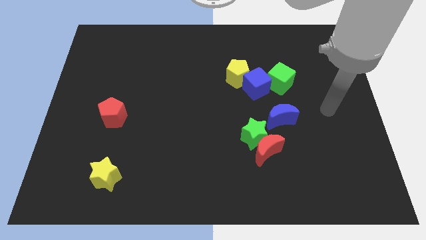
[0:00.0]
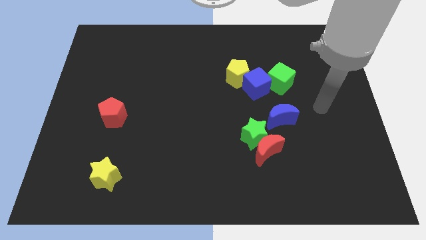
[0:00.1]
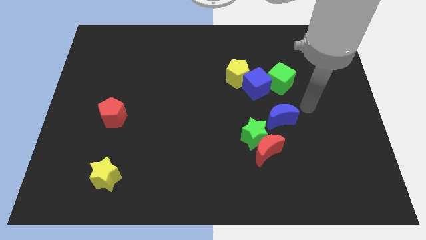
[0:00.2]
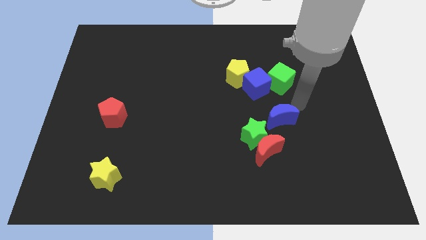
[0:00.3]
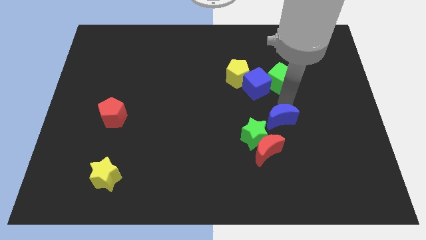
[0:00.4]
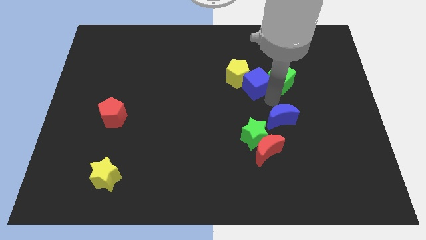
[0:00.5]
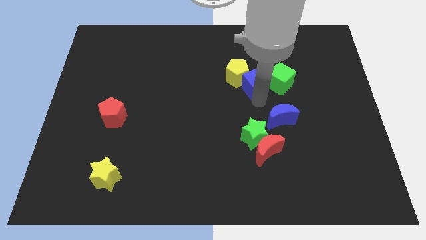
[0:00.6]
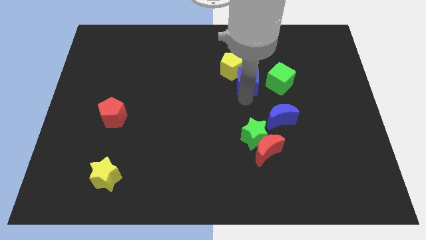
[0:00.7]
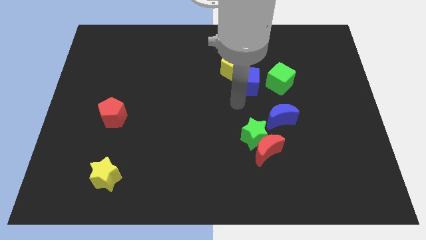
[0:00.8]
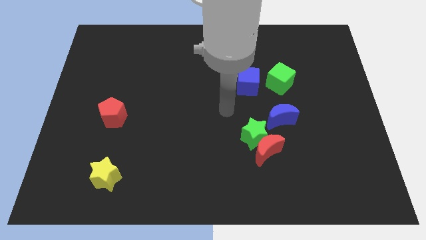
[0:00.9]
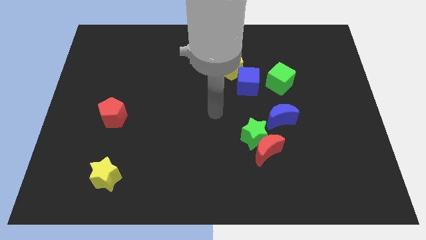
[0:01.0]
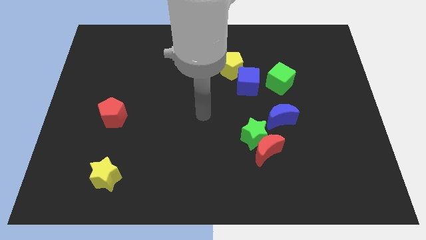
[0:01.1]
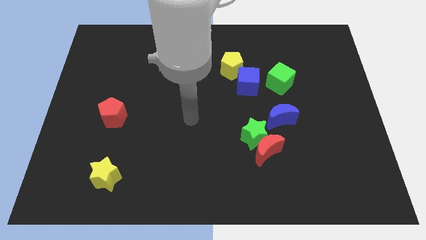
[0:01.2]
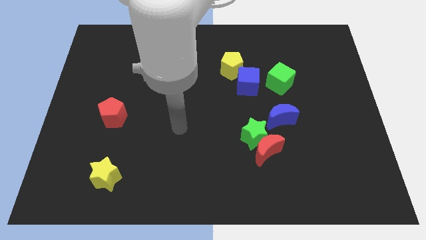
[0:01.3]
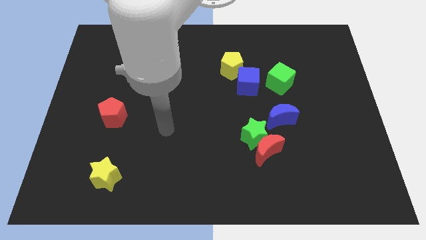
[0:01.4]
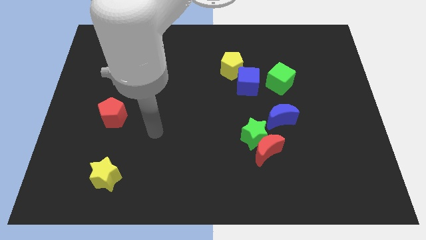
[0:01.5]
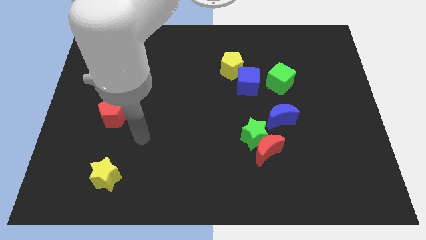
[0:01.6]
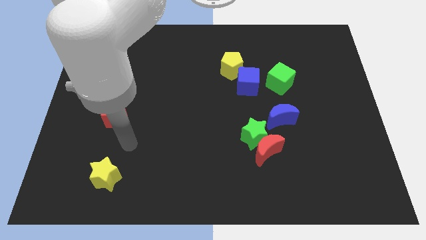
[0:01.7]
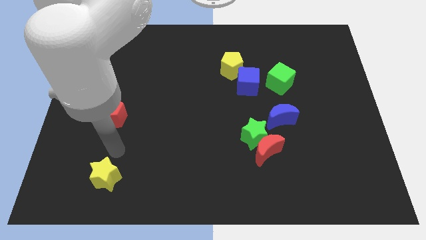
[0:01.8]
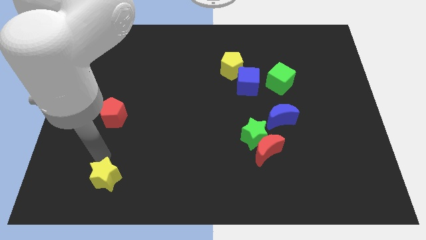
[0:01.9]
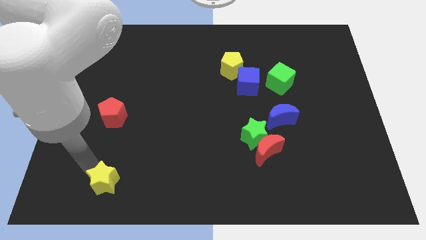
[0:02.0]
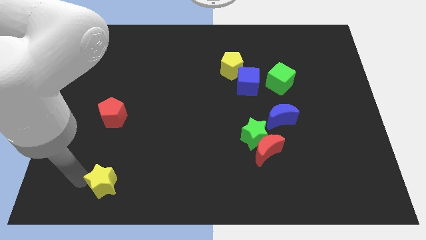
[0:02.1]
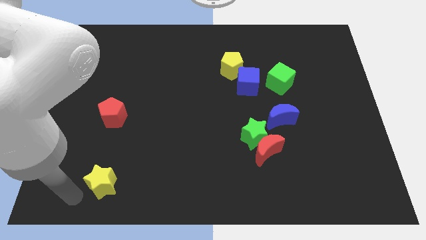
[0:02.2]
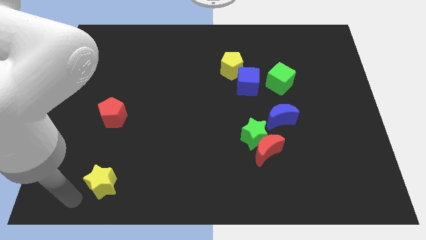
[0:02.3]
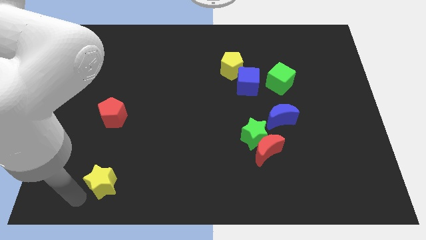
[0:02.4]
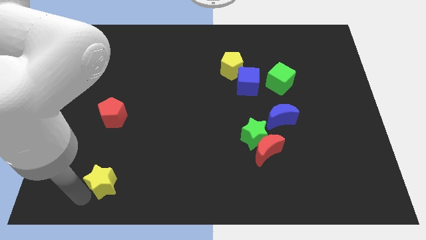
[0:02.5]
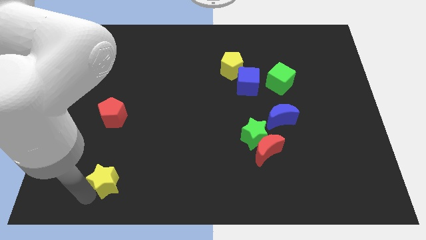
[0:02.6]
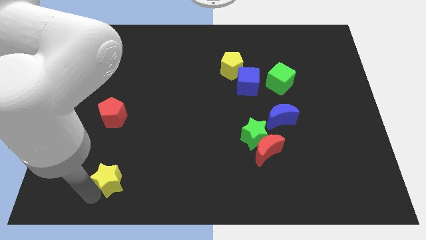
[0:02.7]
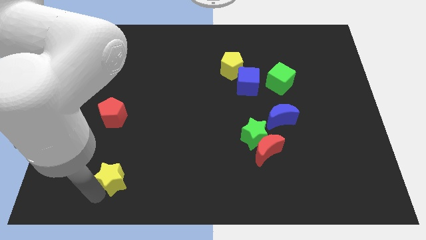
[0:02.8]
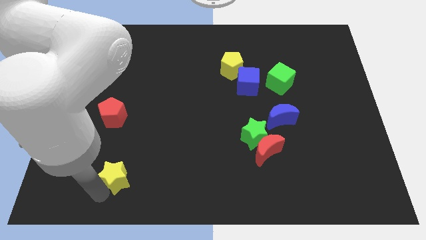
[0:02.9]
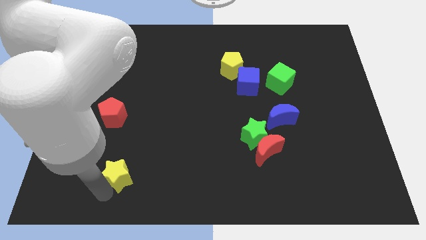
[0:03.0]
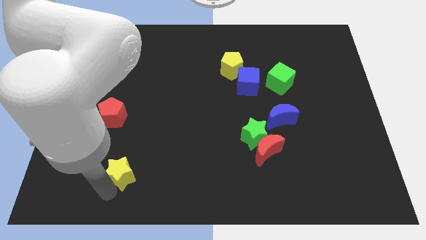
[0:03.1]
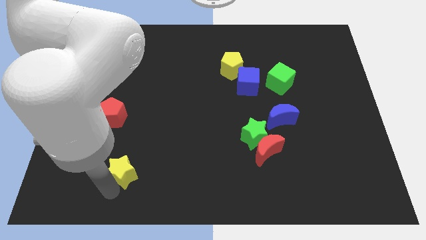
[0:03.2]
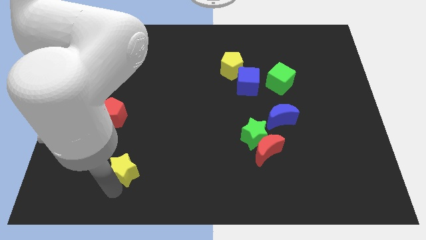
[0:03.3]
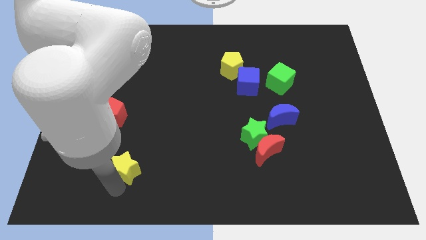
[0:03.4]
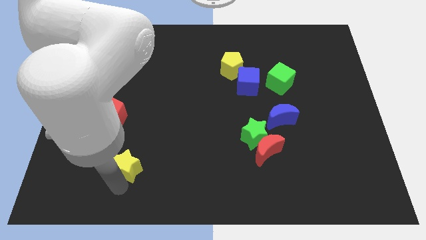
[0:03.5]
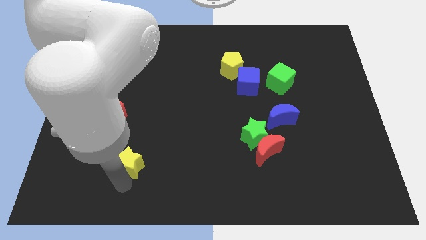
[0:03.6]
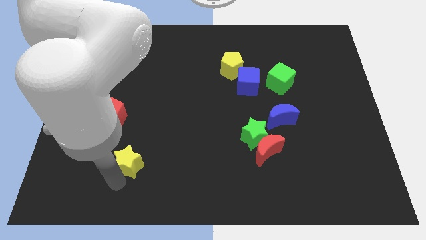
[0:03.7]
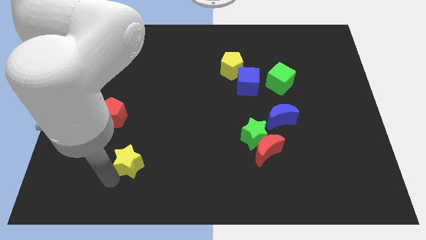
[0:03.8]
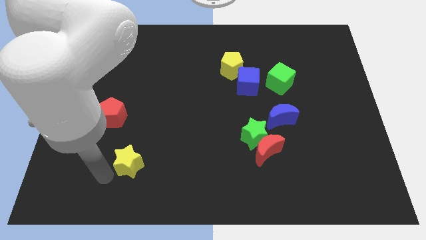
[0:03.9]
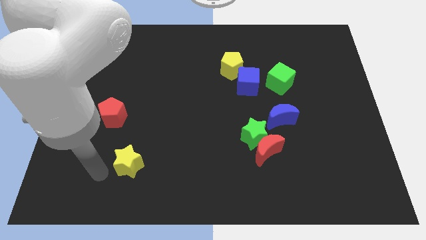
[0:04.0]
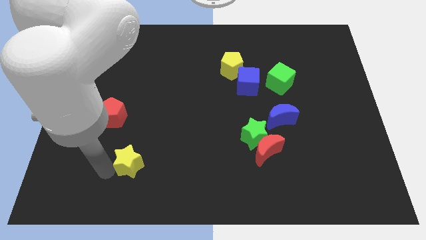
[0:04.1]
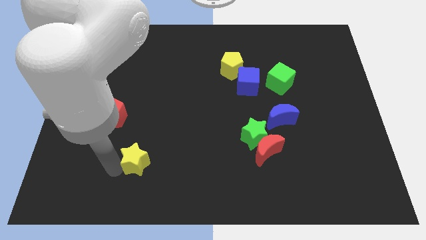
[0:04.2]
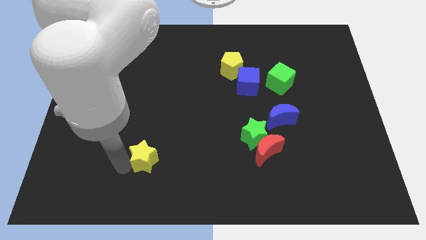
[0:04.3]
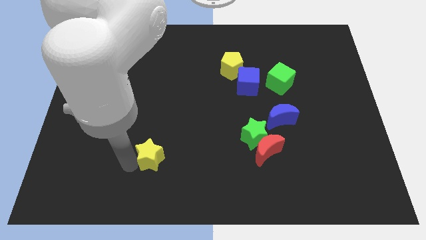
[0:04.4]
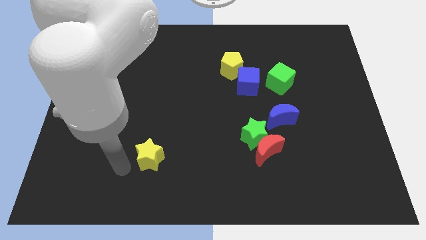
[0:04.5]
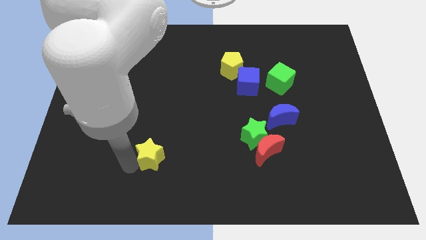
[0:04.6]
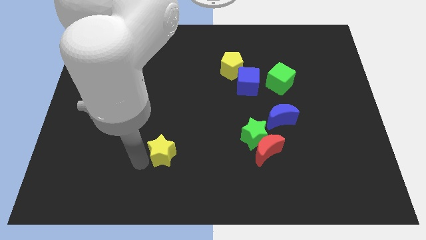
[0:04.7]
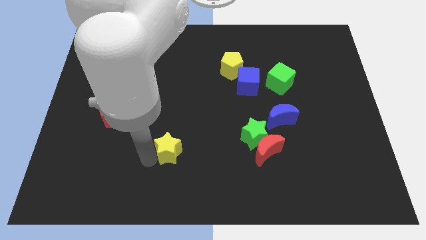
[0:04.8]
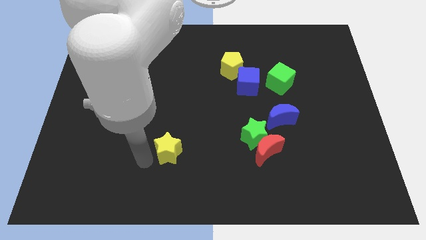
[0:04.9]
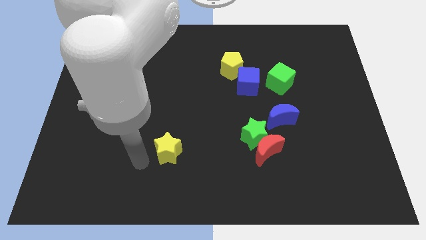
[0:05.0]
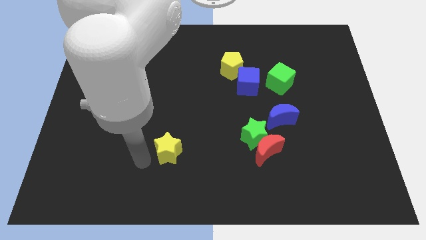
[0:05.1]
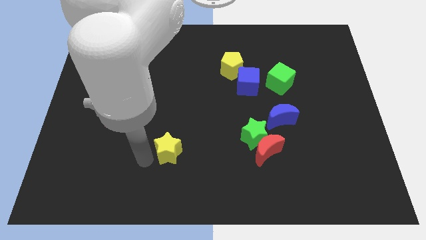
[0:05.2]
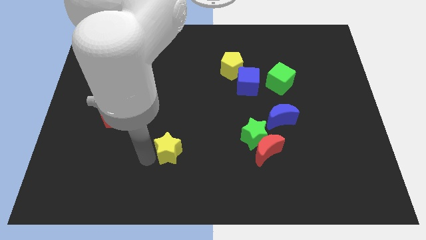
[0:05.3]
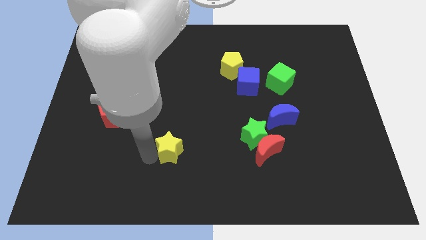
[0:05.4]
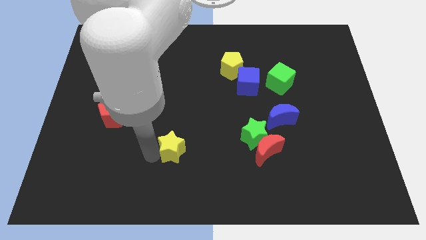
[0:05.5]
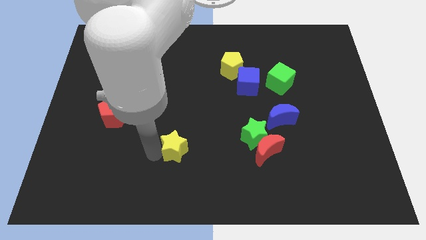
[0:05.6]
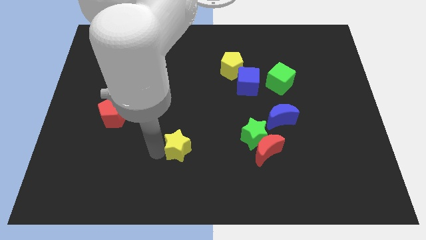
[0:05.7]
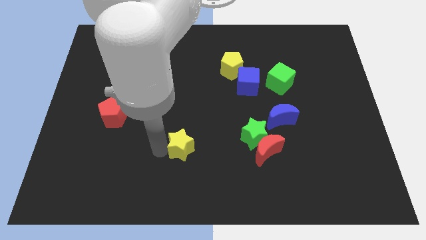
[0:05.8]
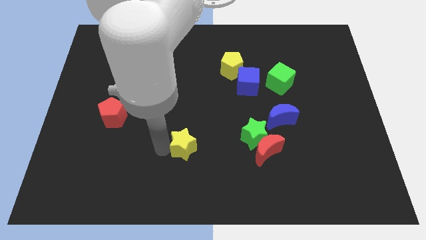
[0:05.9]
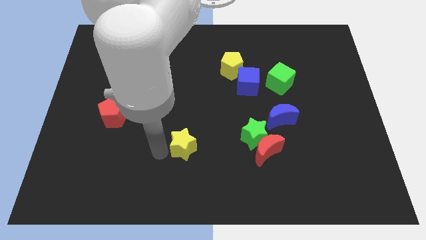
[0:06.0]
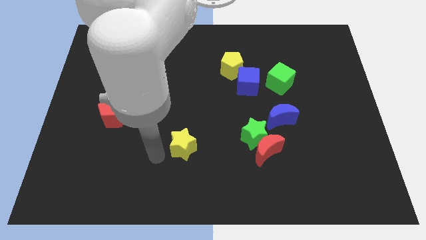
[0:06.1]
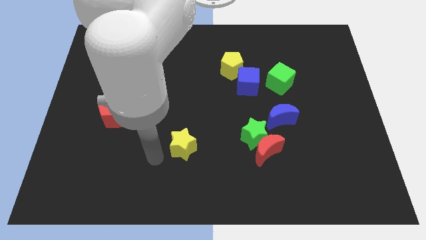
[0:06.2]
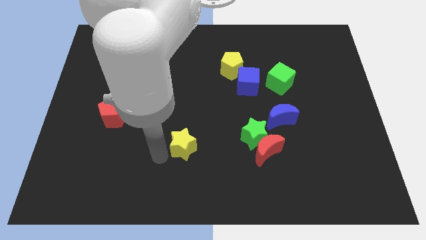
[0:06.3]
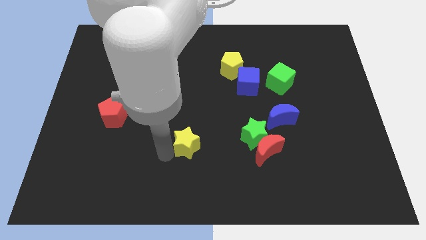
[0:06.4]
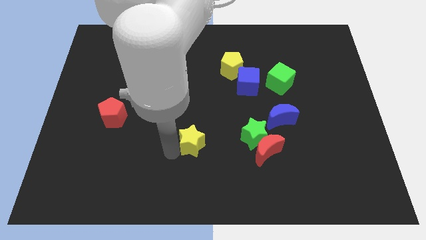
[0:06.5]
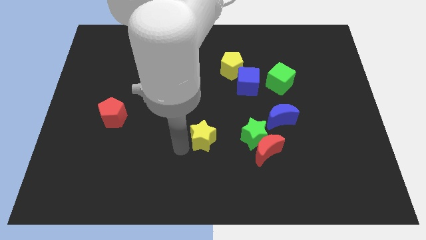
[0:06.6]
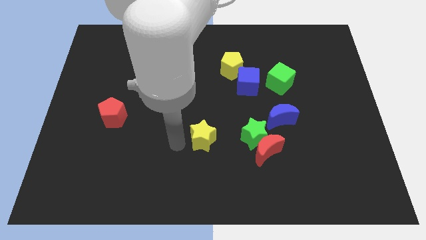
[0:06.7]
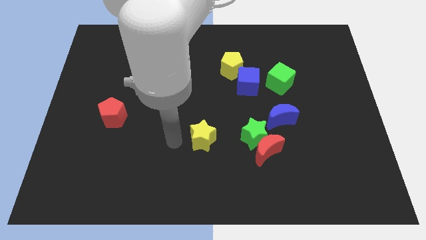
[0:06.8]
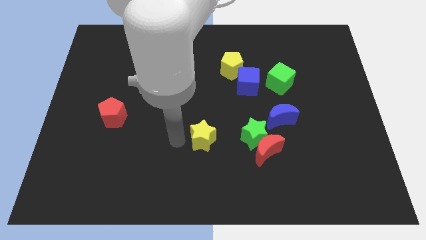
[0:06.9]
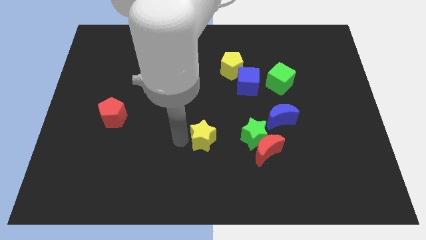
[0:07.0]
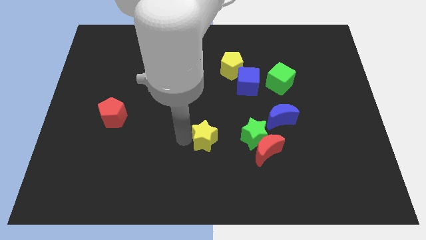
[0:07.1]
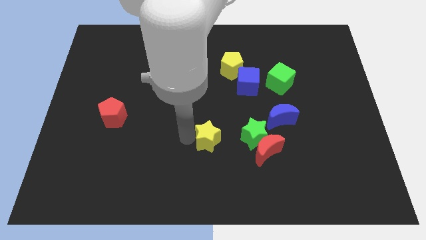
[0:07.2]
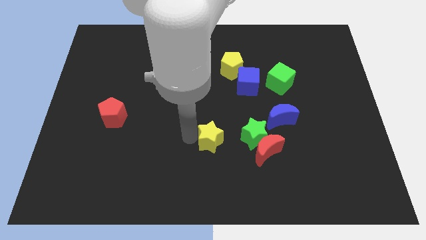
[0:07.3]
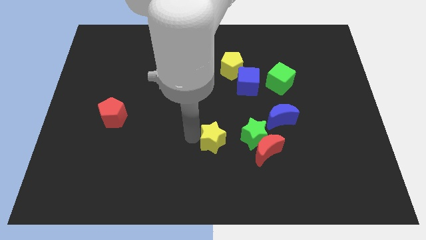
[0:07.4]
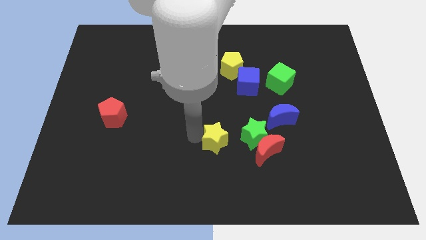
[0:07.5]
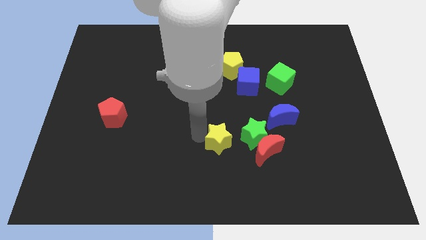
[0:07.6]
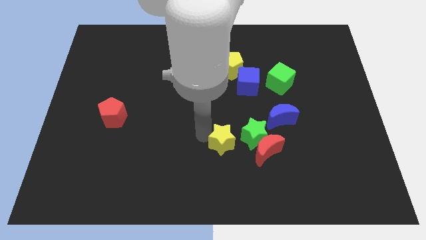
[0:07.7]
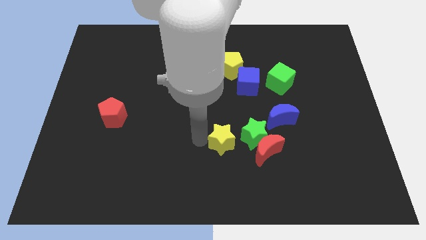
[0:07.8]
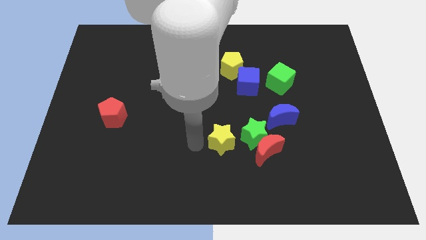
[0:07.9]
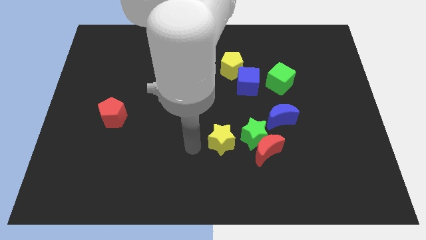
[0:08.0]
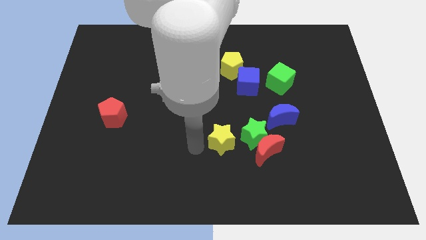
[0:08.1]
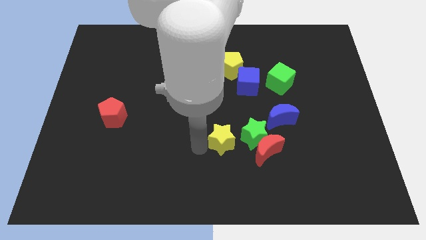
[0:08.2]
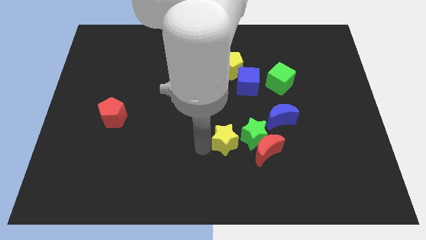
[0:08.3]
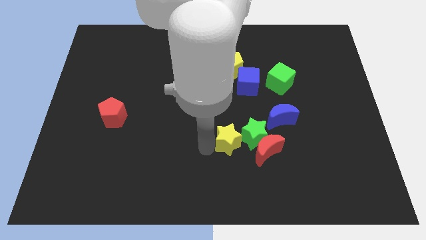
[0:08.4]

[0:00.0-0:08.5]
slide the yellow star next to the green star
